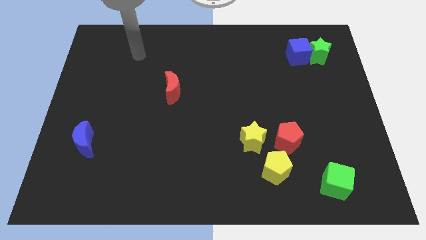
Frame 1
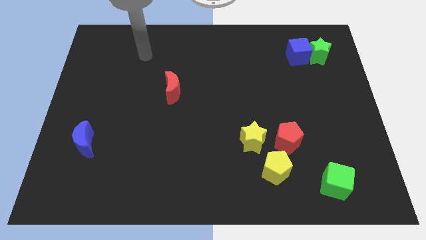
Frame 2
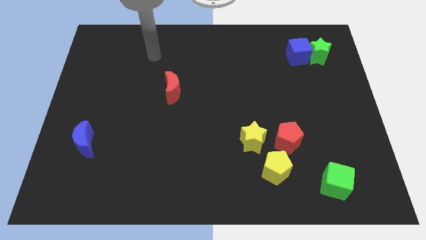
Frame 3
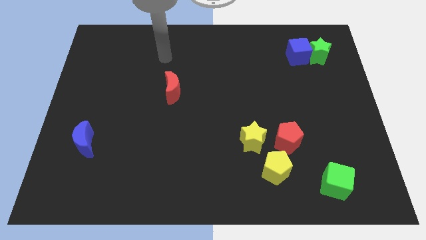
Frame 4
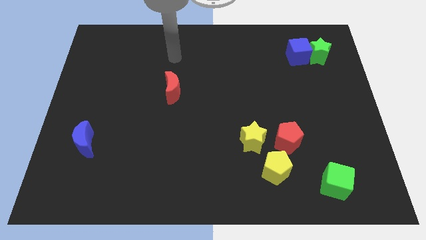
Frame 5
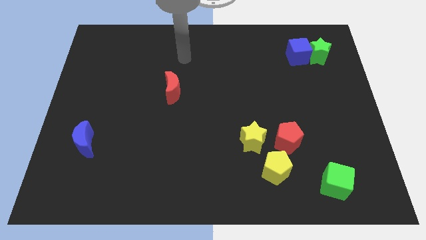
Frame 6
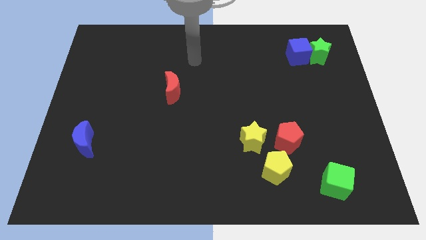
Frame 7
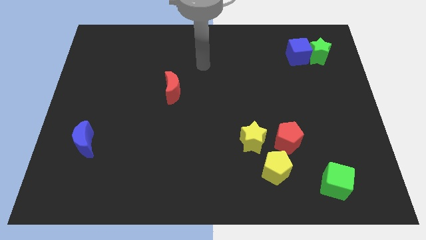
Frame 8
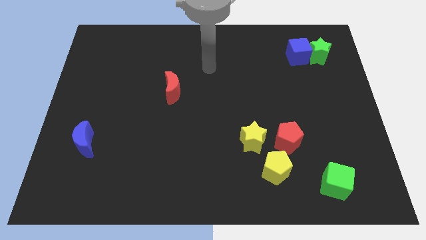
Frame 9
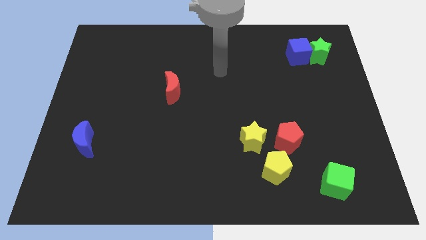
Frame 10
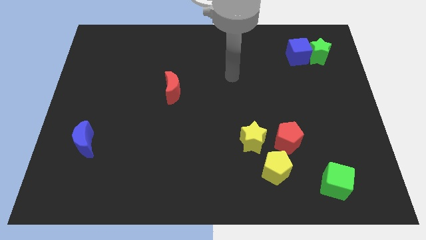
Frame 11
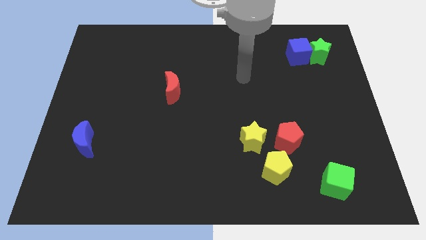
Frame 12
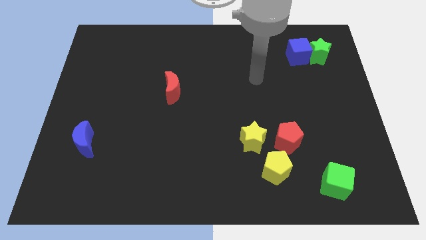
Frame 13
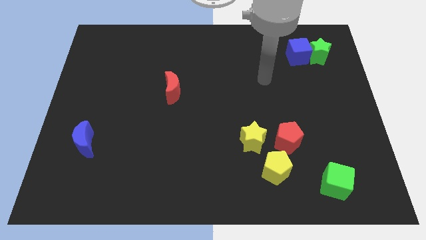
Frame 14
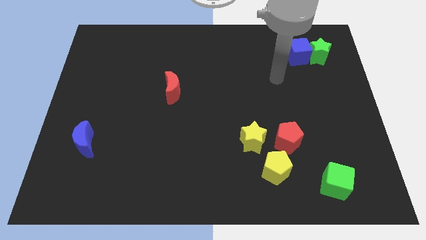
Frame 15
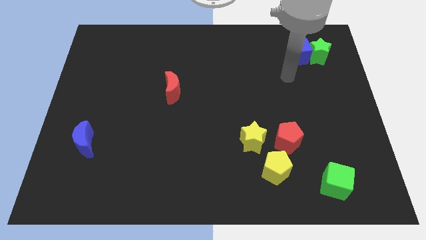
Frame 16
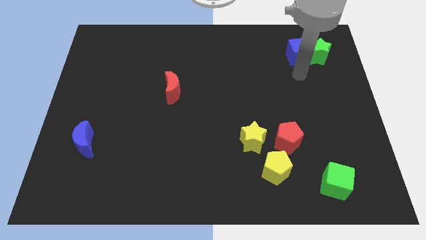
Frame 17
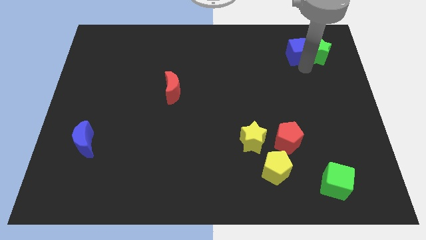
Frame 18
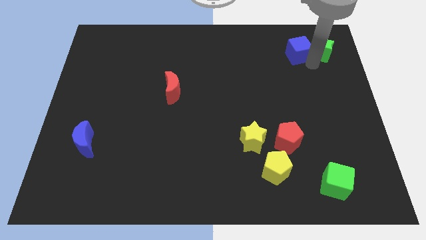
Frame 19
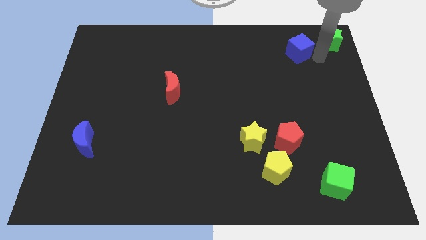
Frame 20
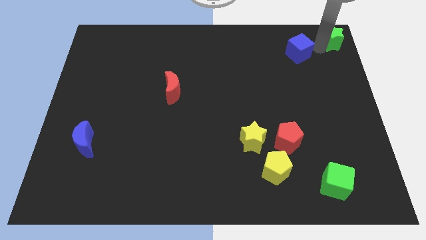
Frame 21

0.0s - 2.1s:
pull the blue cube apart from the green star

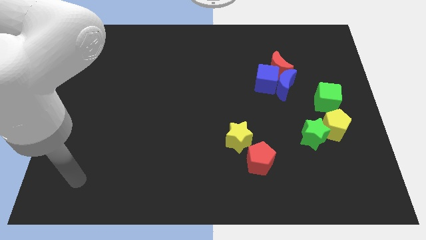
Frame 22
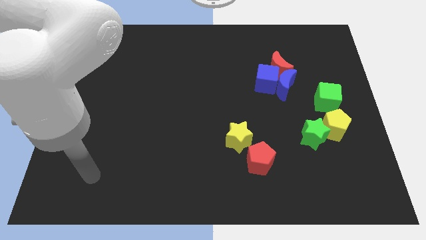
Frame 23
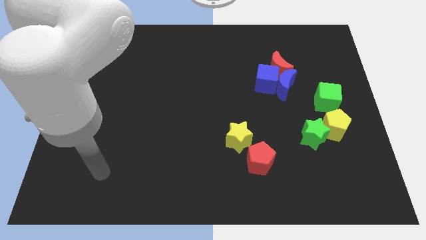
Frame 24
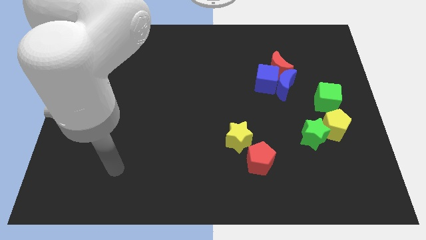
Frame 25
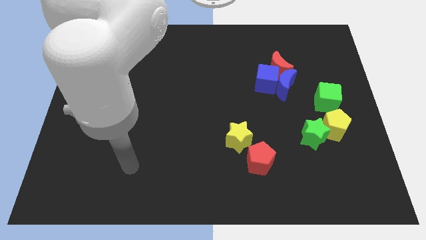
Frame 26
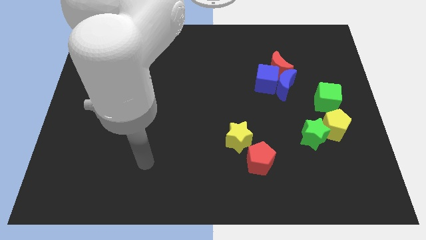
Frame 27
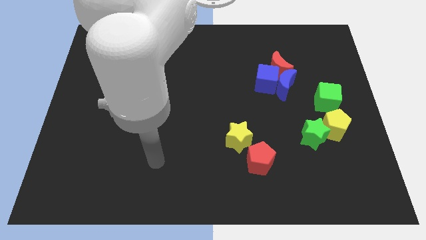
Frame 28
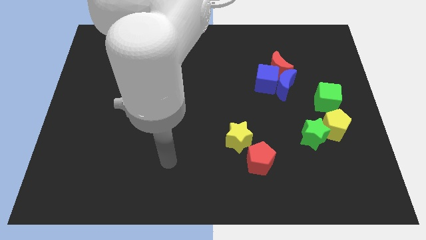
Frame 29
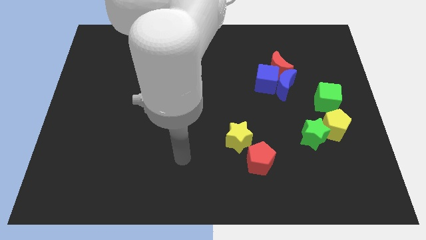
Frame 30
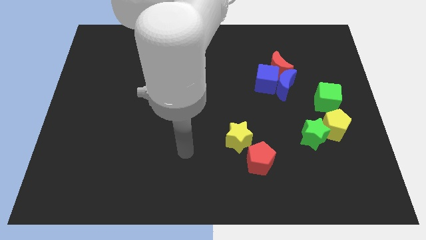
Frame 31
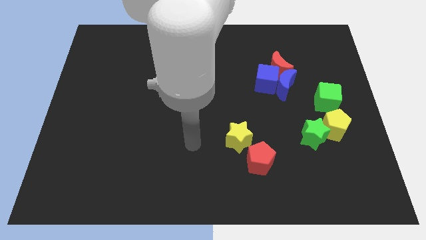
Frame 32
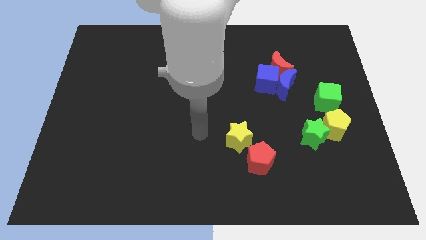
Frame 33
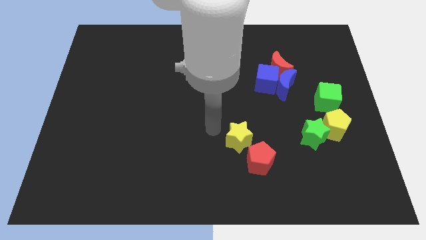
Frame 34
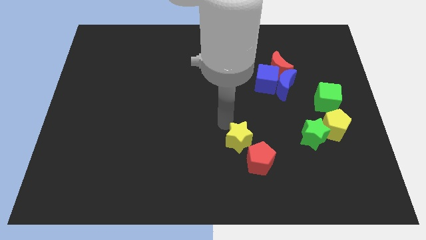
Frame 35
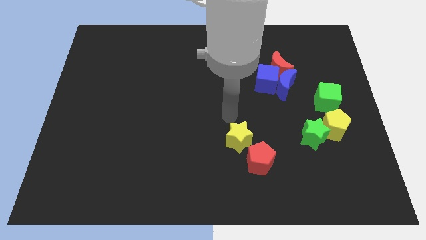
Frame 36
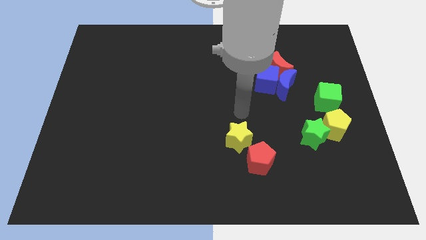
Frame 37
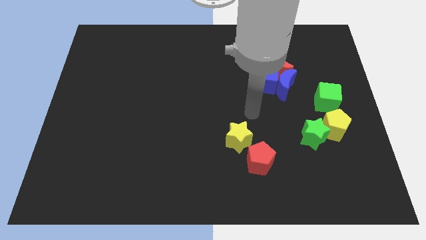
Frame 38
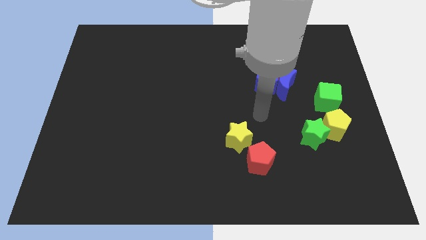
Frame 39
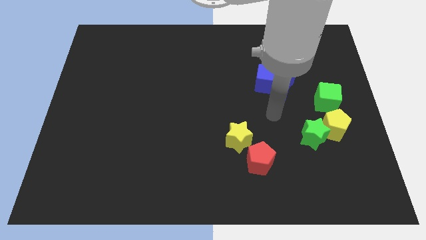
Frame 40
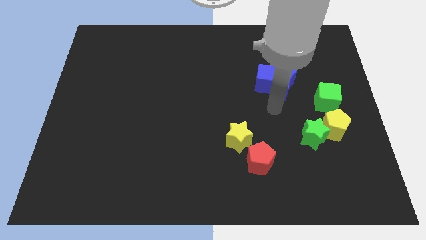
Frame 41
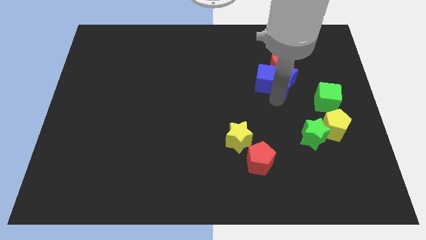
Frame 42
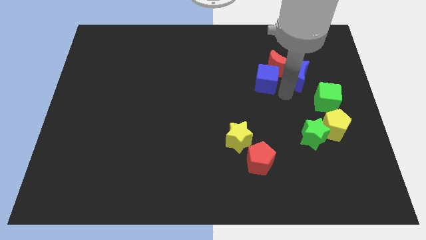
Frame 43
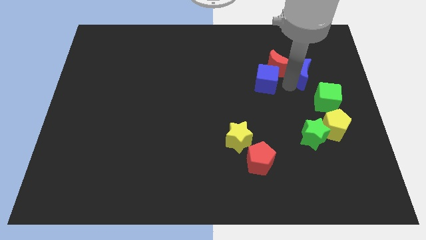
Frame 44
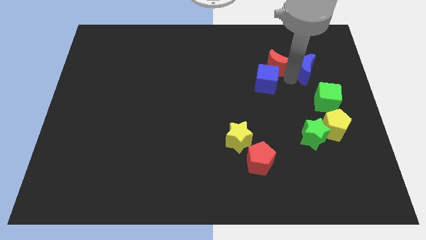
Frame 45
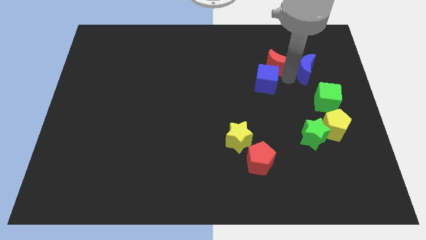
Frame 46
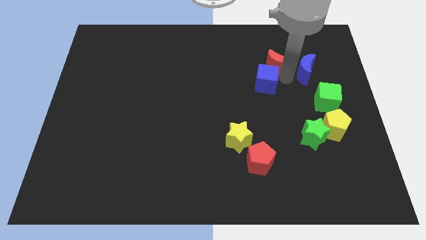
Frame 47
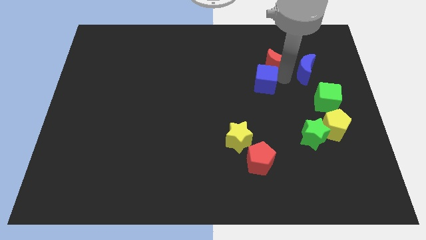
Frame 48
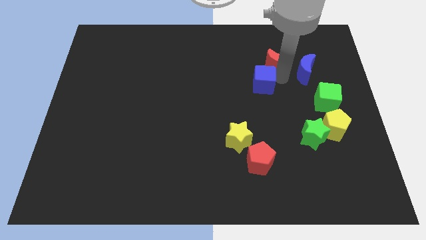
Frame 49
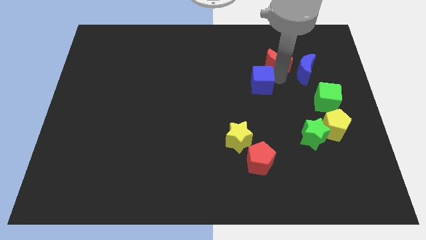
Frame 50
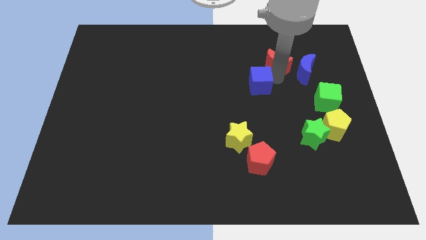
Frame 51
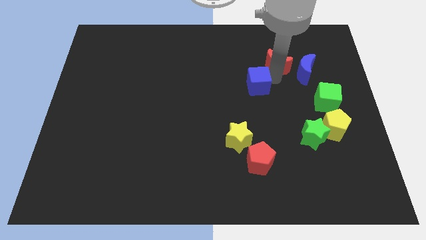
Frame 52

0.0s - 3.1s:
move the blue cube away from the blue moon and red moon

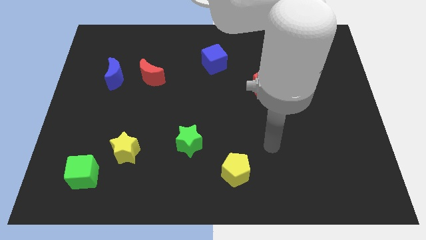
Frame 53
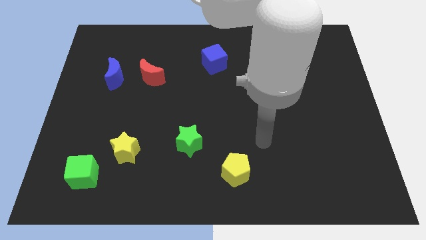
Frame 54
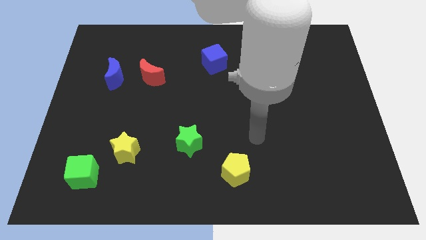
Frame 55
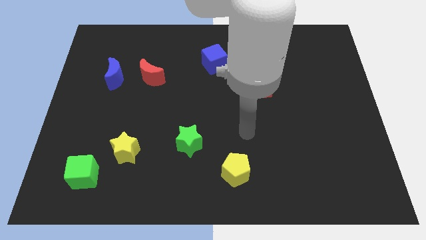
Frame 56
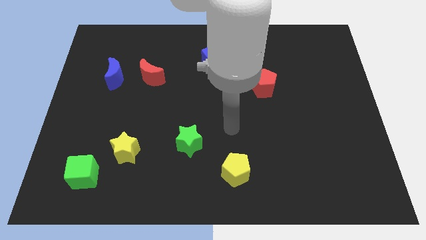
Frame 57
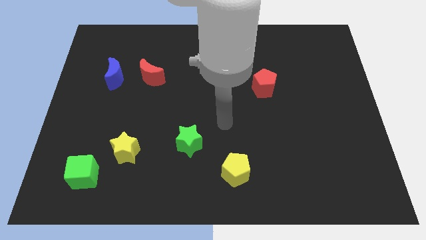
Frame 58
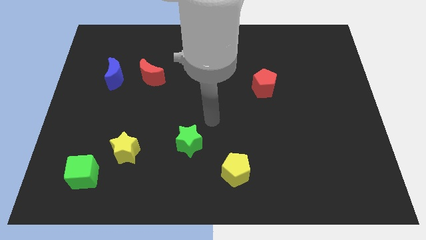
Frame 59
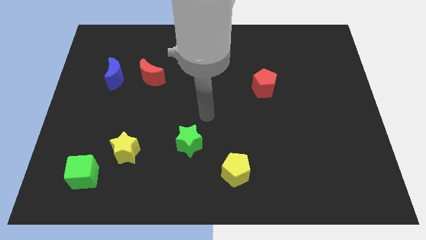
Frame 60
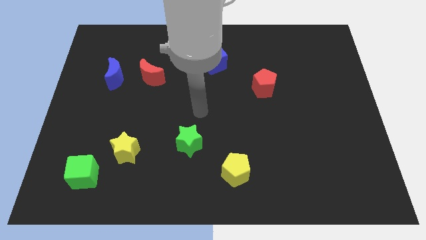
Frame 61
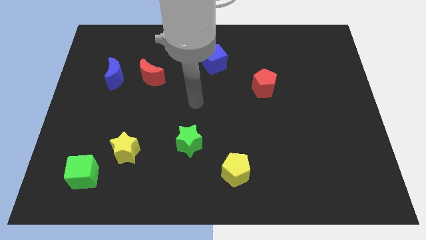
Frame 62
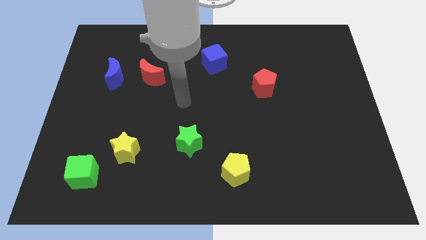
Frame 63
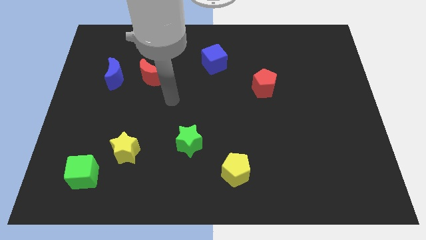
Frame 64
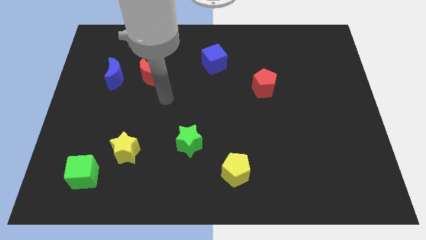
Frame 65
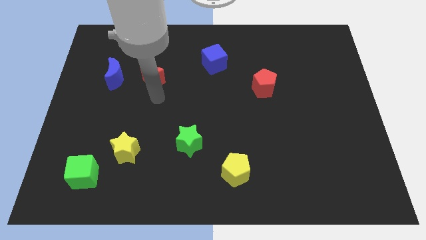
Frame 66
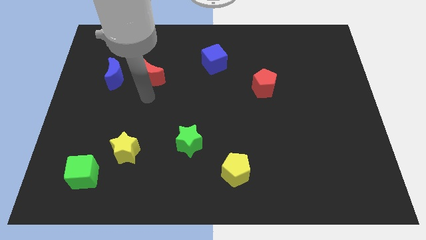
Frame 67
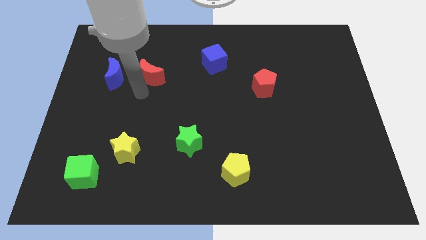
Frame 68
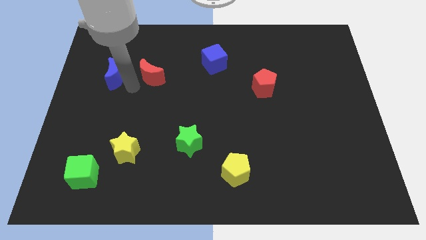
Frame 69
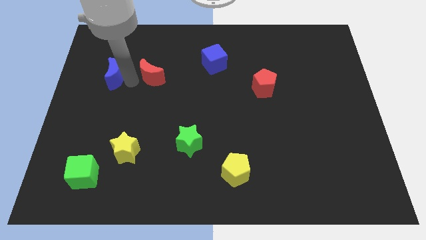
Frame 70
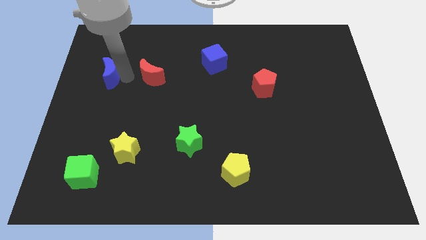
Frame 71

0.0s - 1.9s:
separate the red moon from the blue moon

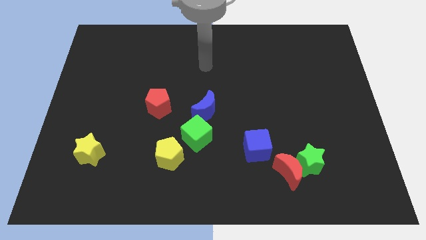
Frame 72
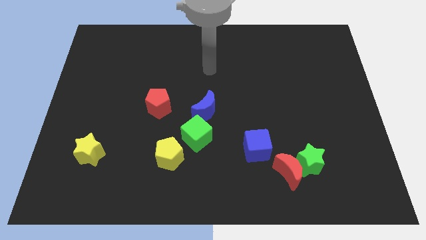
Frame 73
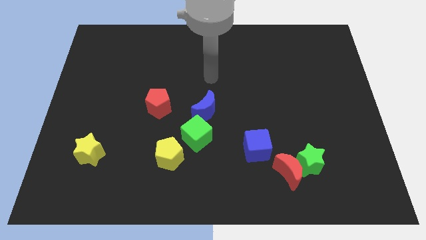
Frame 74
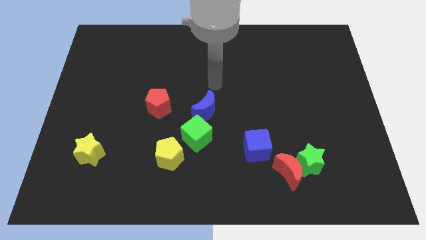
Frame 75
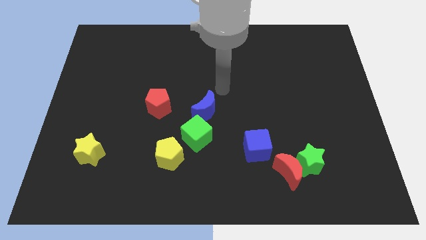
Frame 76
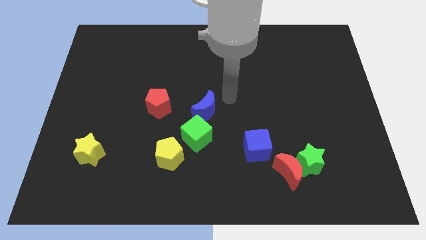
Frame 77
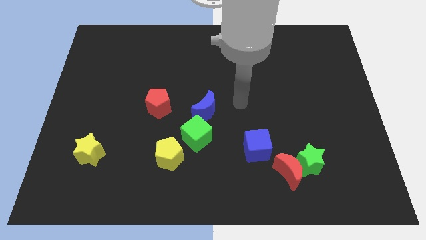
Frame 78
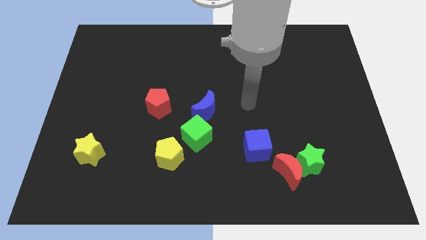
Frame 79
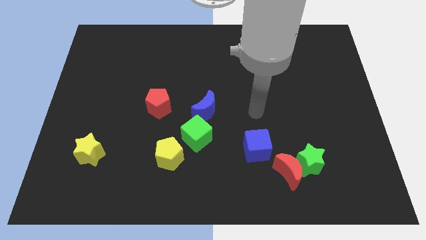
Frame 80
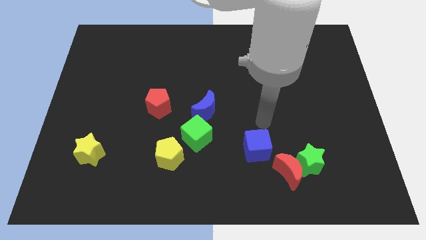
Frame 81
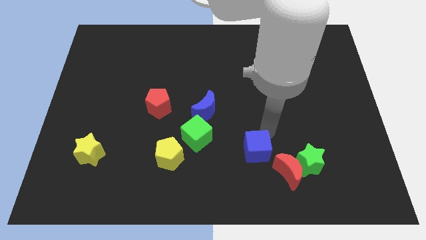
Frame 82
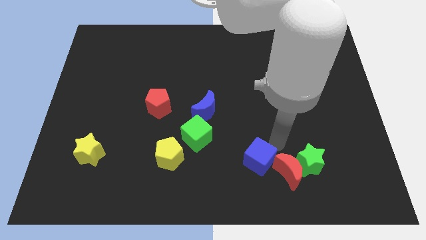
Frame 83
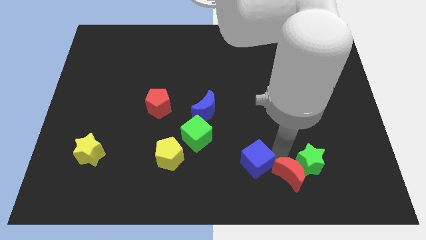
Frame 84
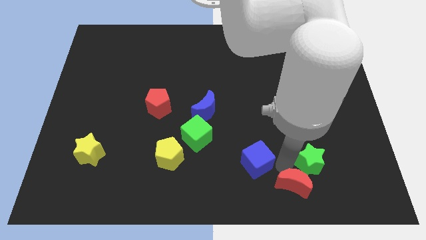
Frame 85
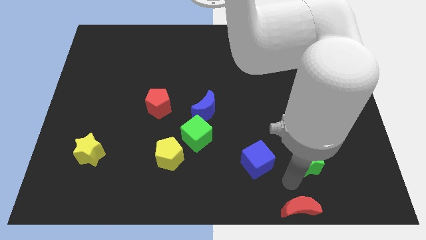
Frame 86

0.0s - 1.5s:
pull the green star apart from the red moon

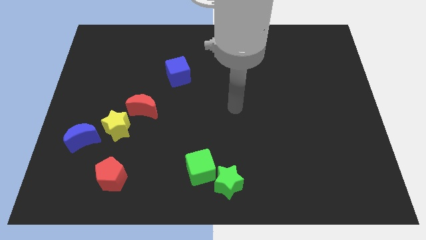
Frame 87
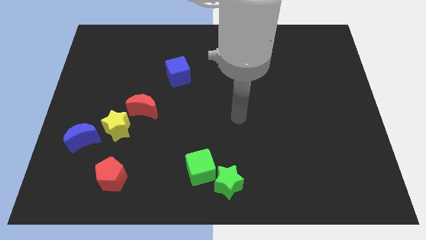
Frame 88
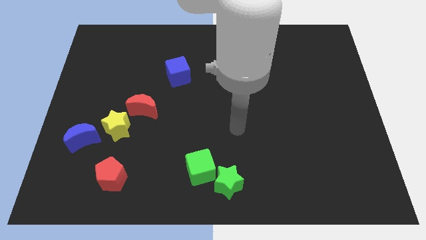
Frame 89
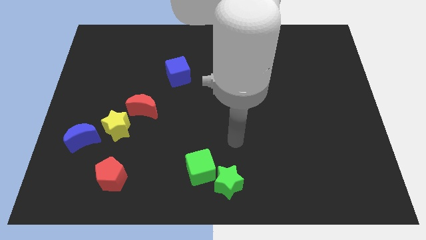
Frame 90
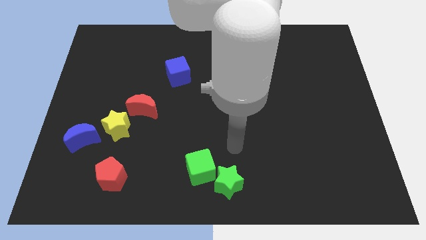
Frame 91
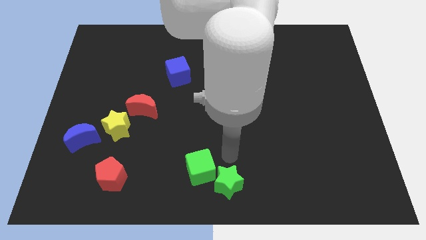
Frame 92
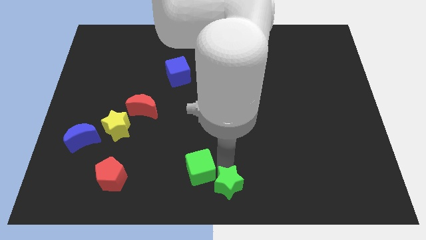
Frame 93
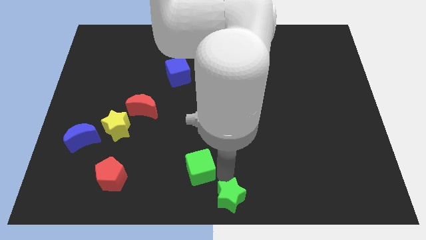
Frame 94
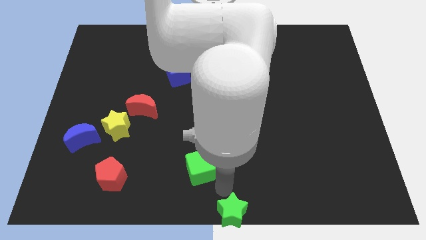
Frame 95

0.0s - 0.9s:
move the green cube away from the green star
